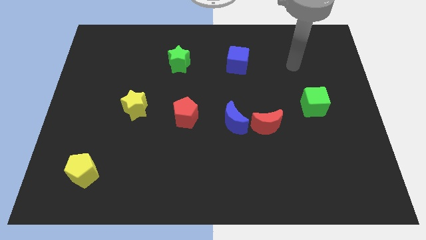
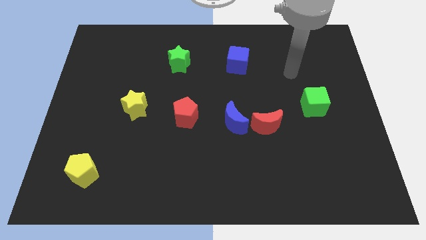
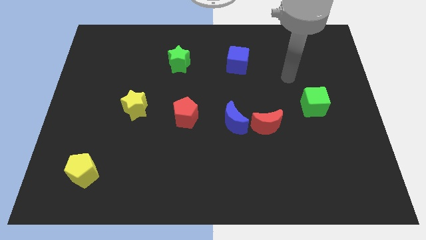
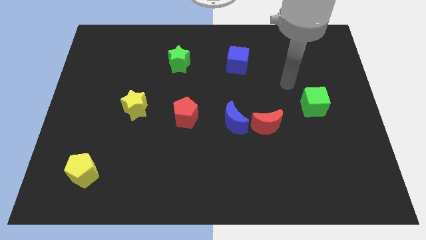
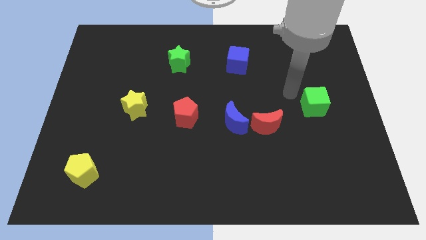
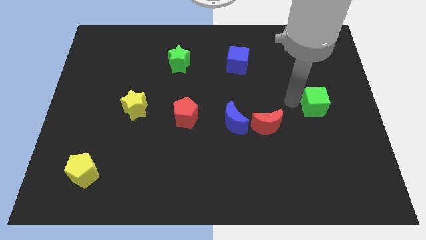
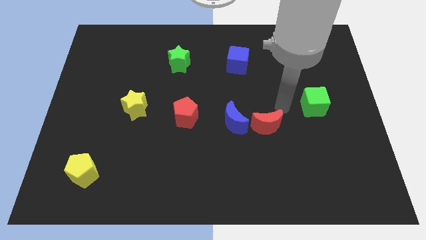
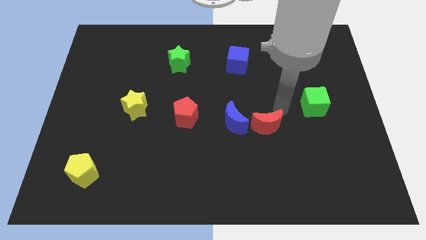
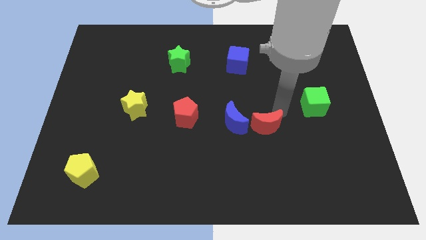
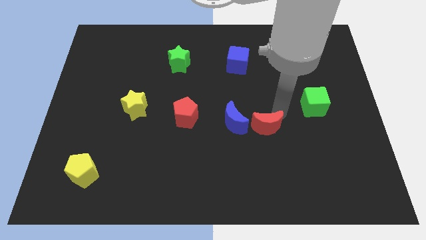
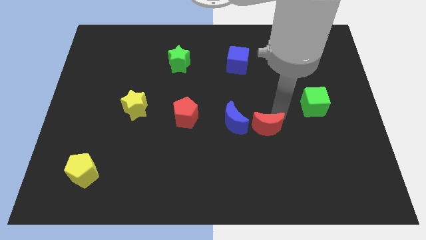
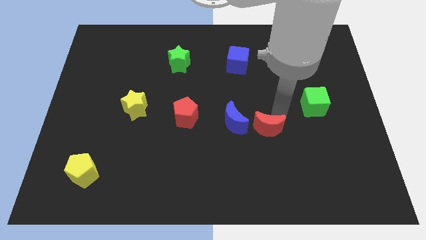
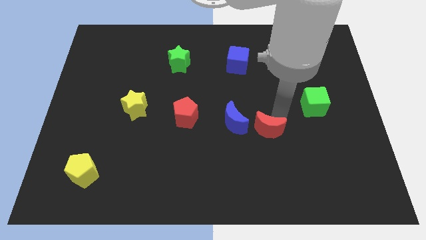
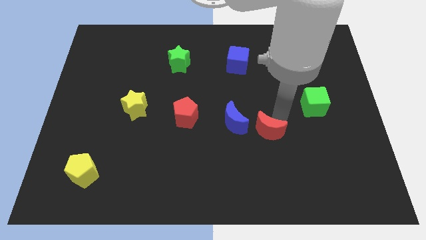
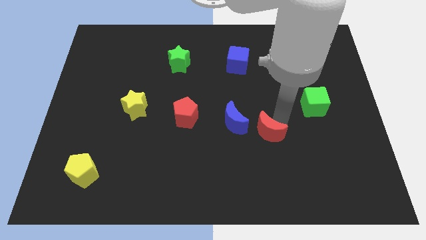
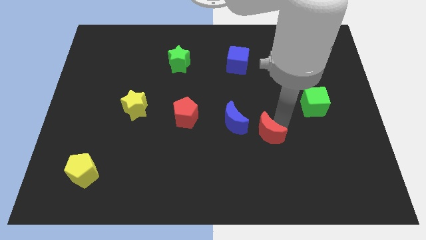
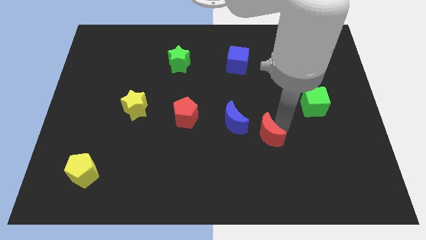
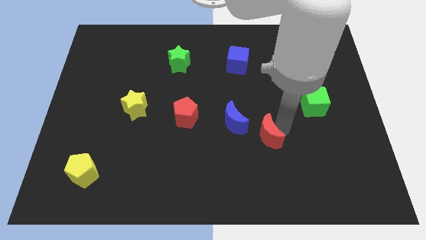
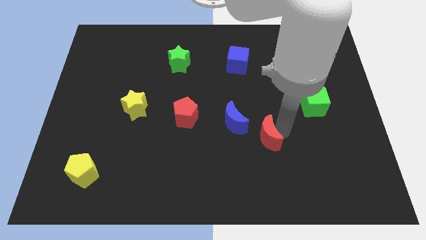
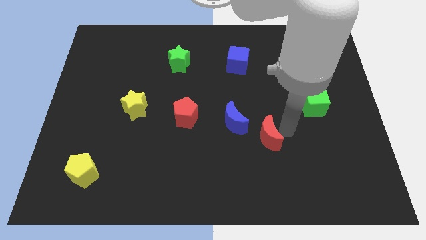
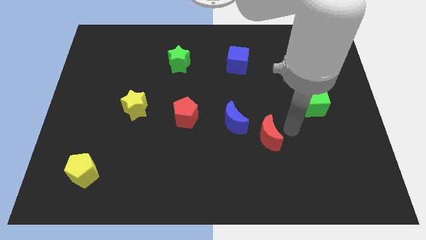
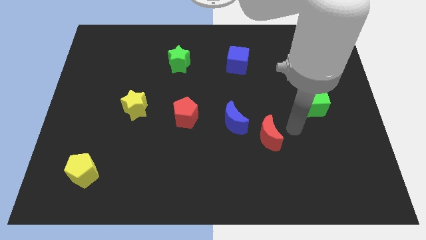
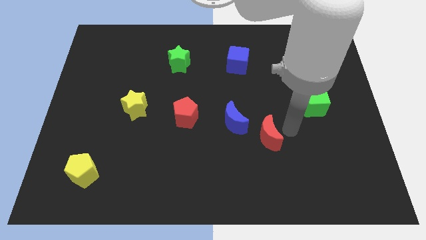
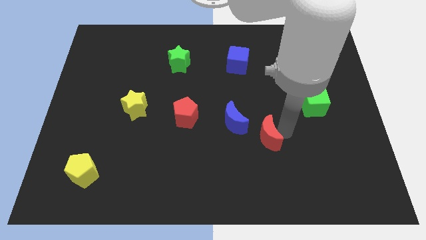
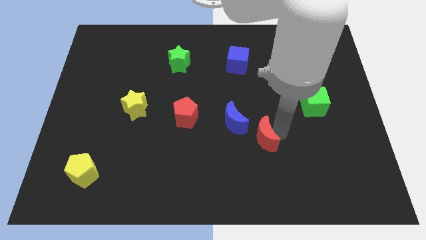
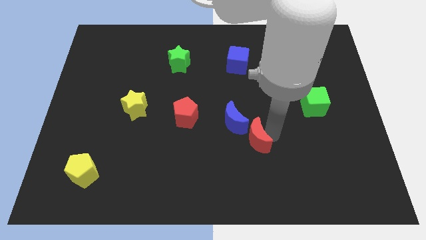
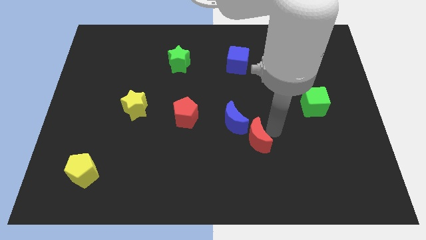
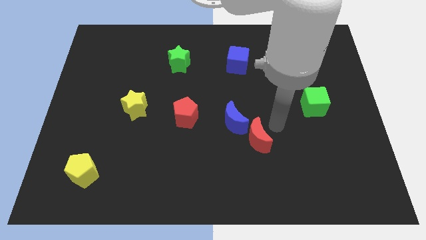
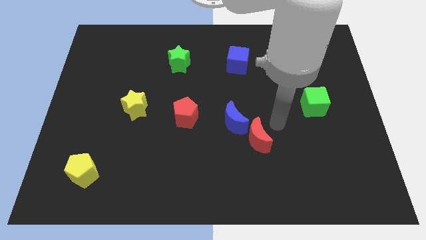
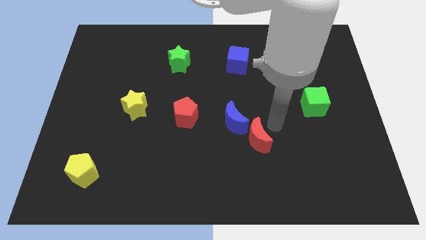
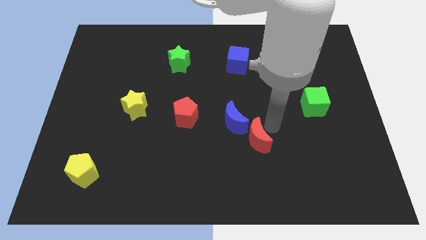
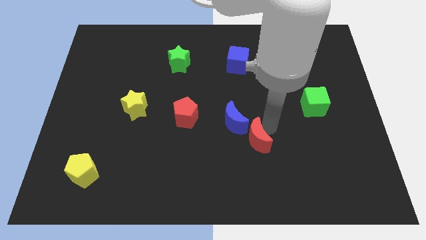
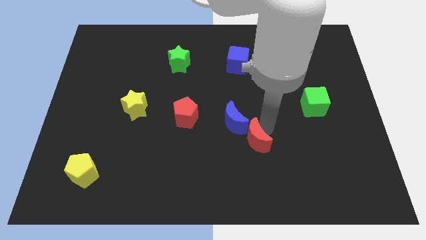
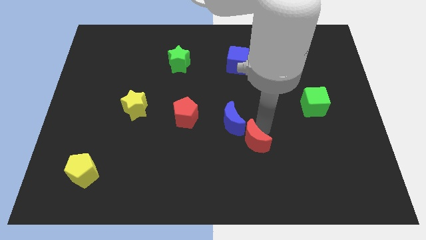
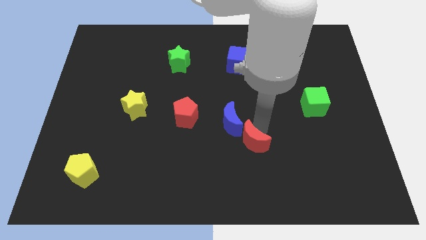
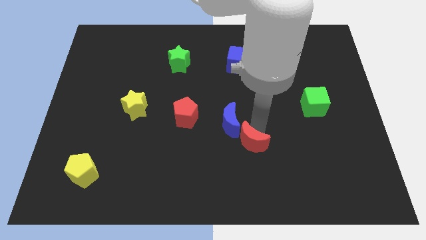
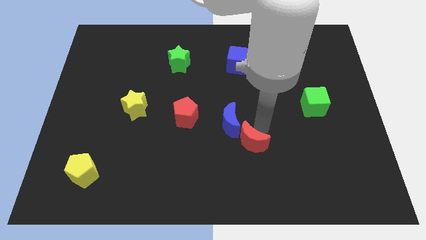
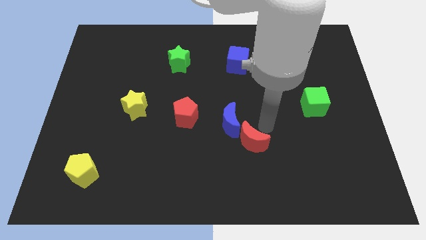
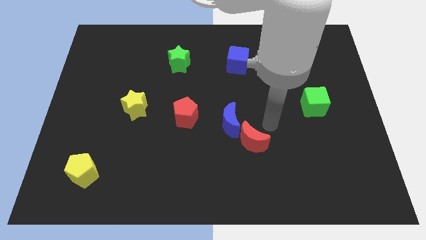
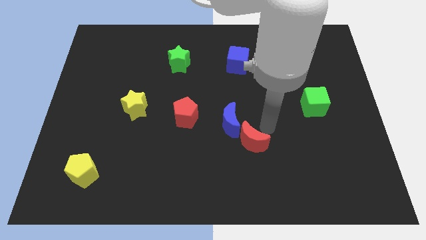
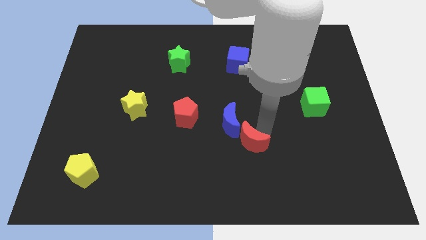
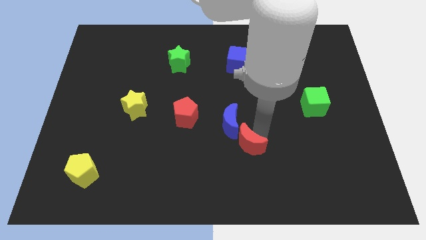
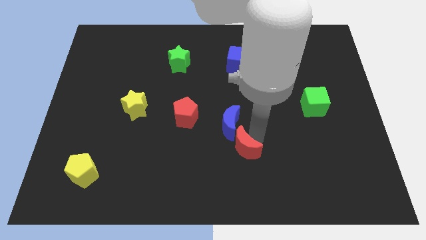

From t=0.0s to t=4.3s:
push the red moon diagonally downwards and to the left slightly

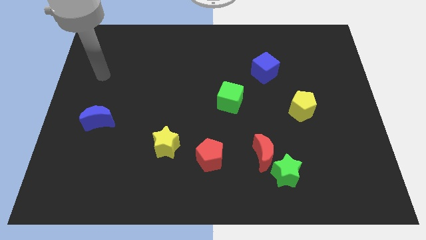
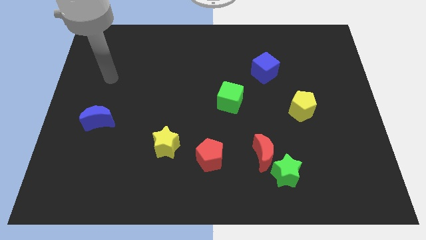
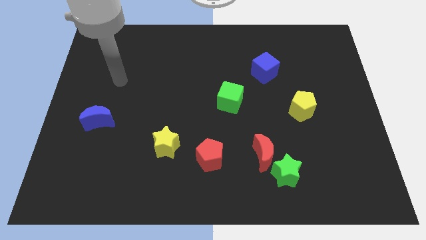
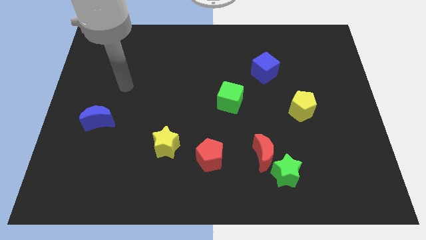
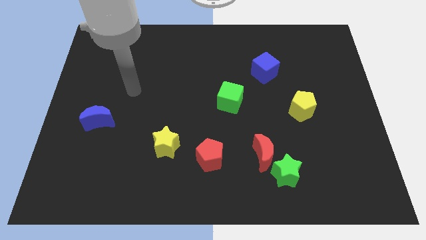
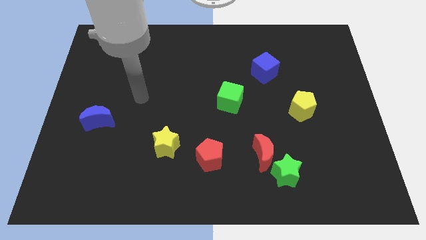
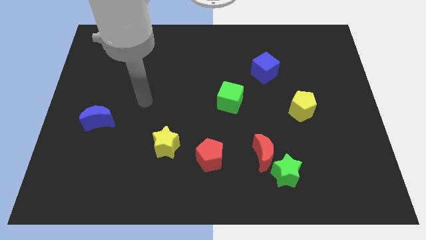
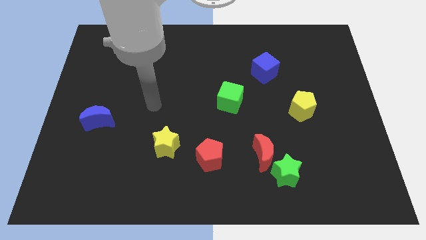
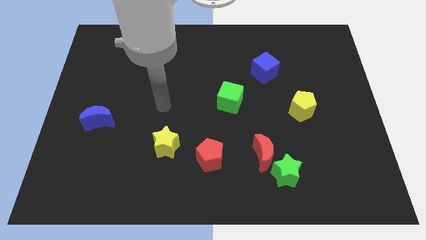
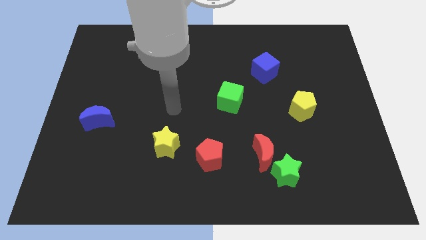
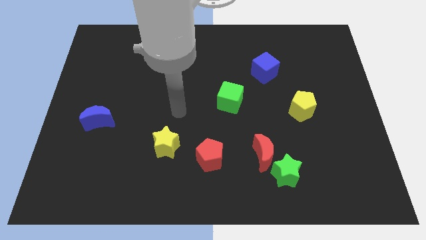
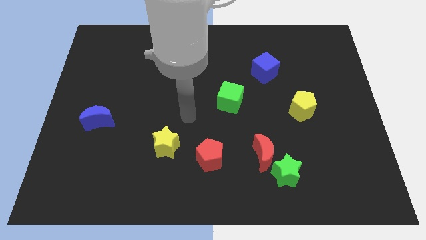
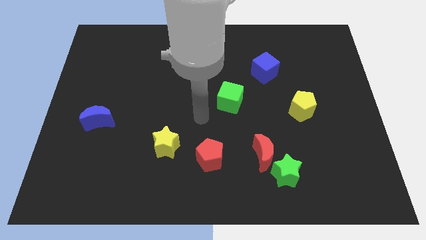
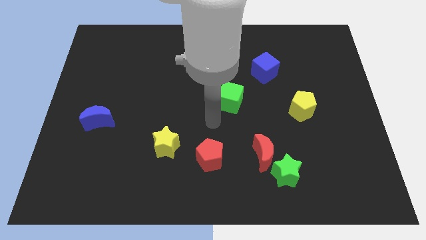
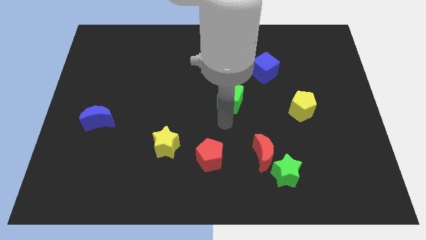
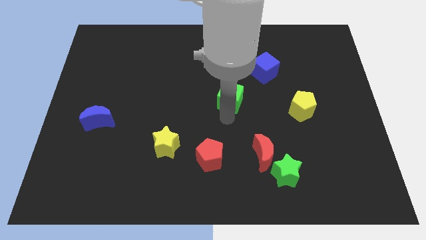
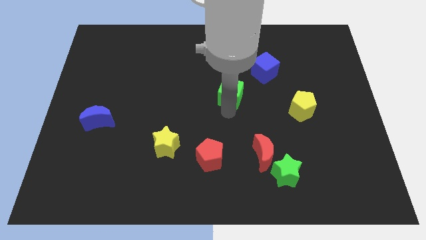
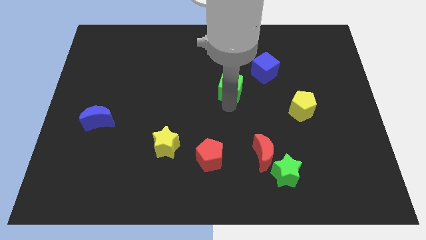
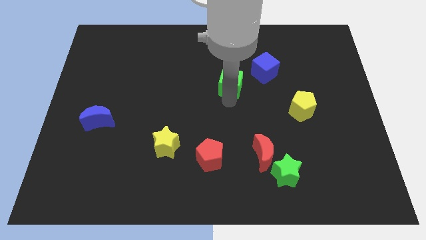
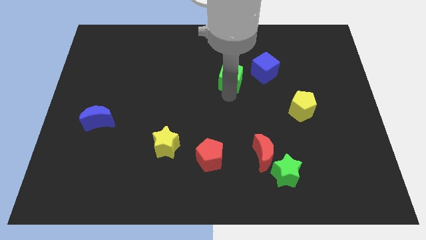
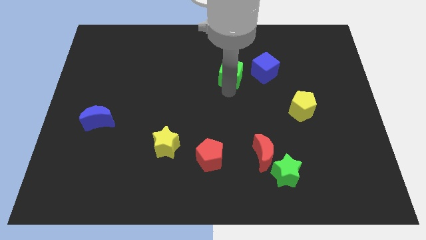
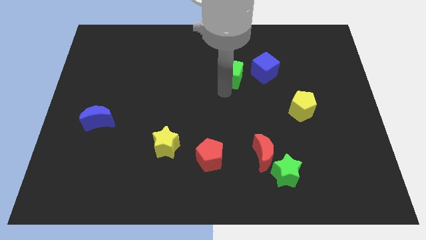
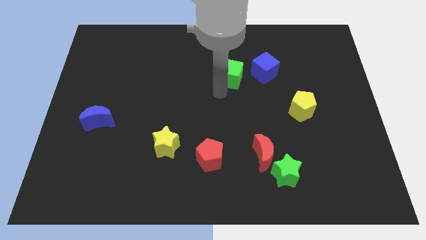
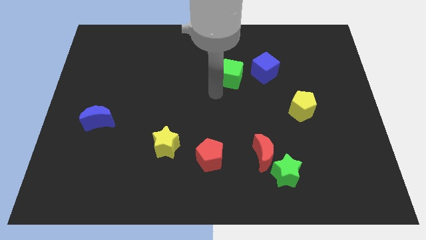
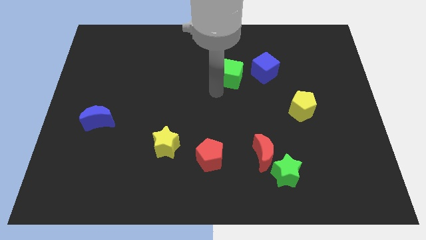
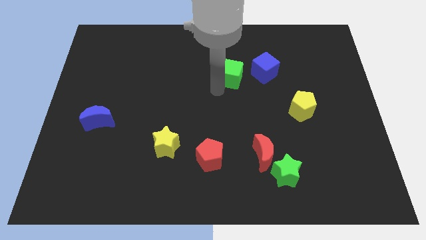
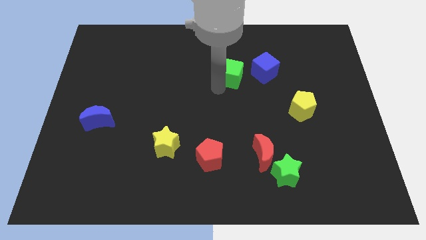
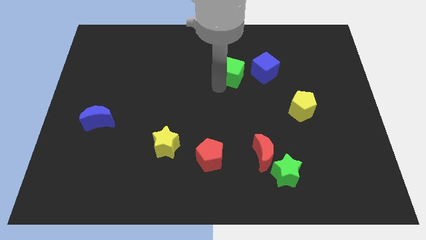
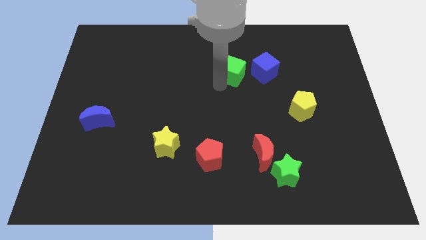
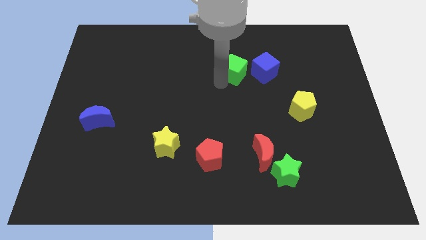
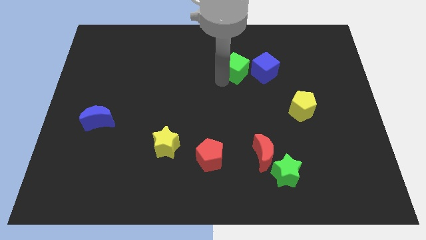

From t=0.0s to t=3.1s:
push the green cube upwards and then to the right a bit

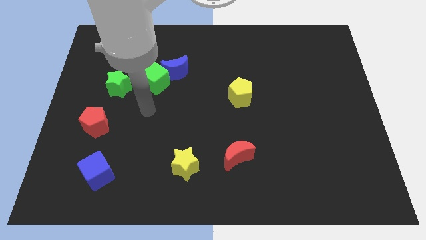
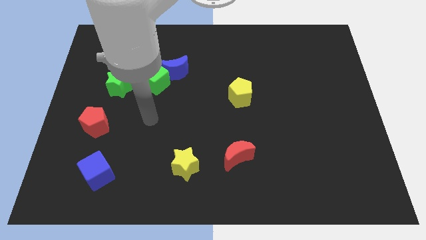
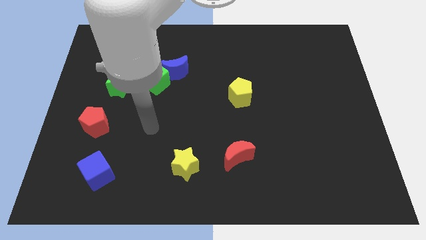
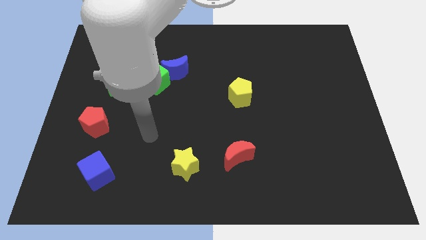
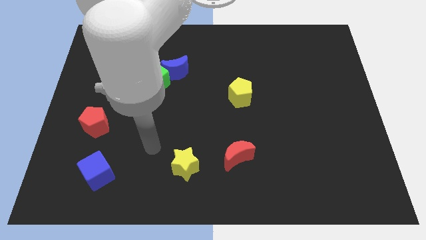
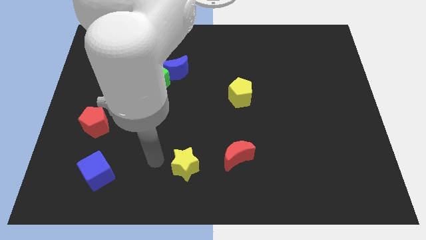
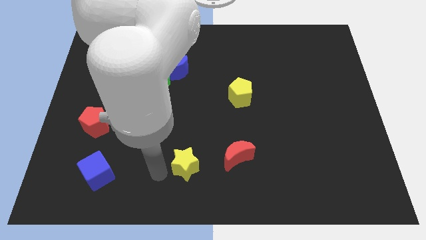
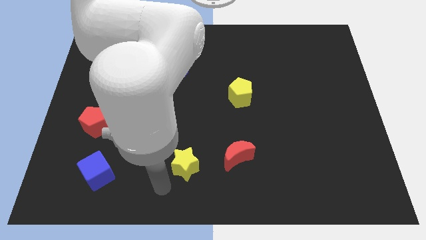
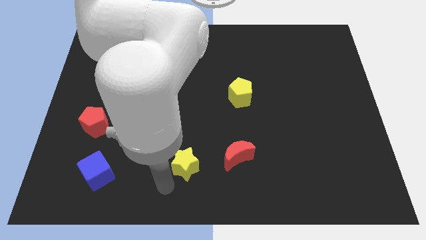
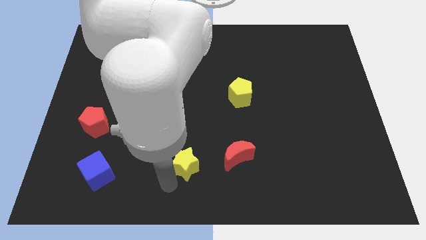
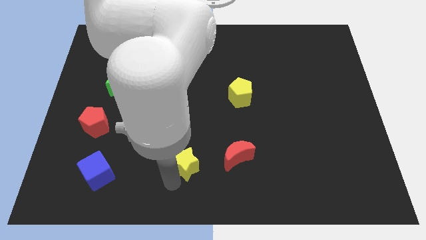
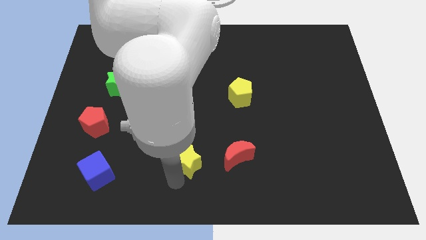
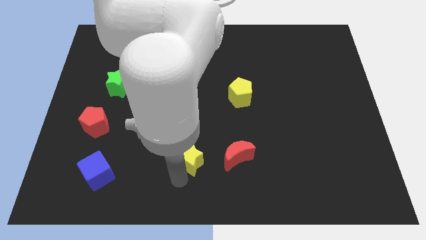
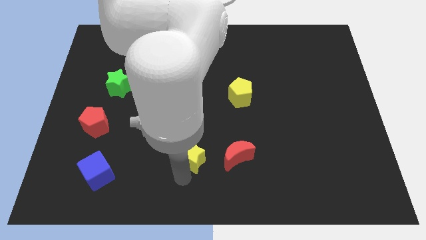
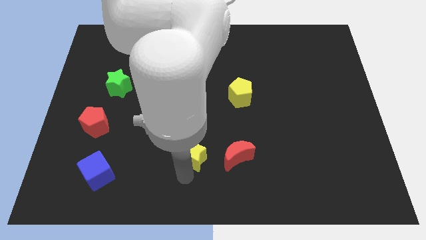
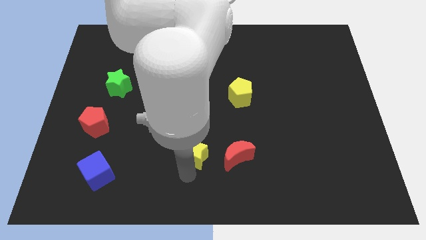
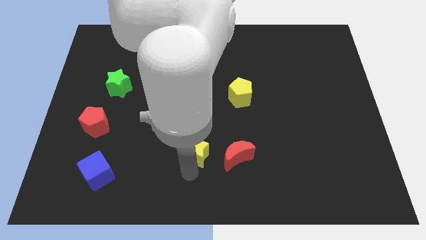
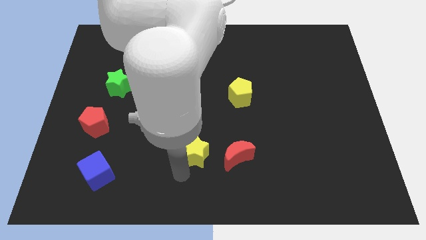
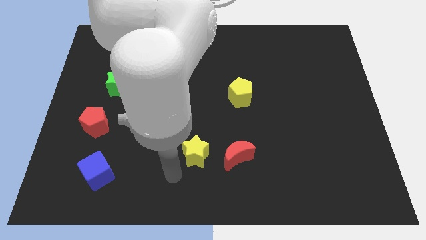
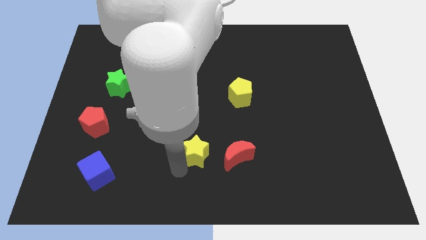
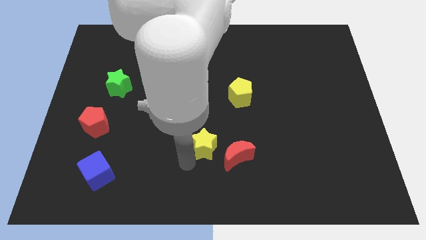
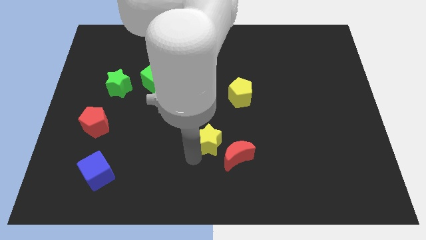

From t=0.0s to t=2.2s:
slide the yellow star a little bit upwards and right diagonally
